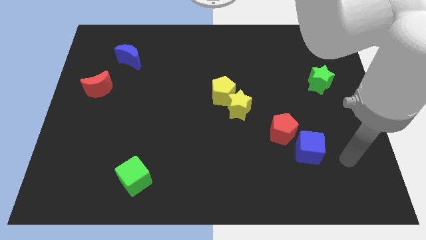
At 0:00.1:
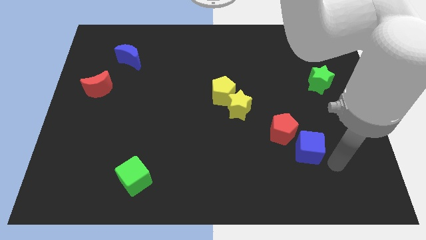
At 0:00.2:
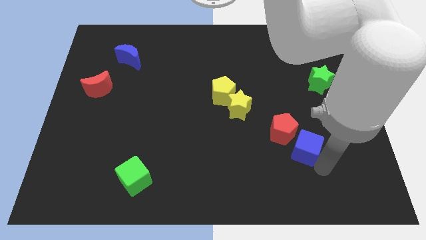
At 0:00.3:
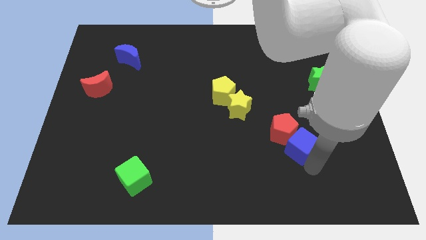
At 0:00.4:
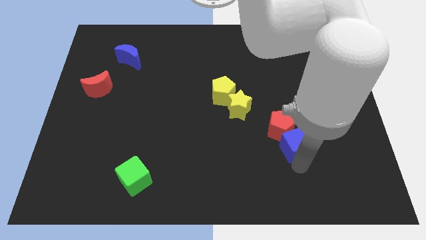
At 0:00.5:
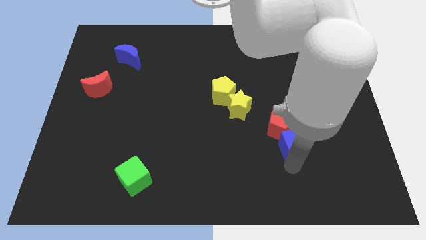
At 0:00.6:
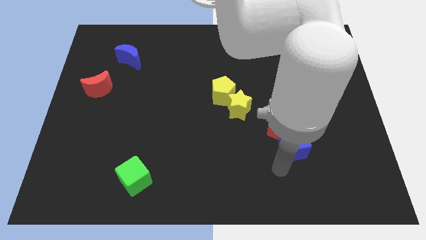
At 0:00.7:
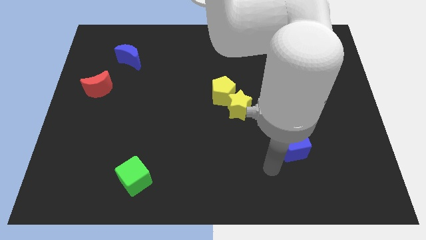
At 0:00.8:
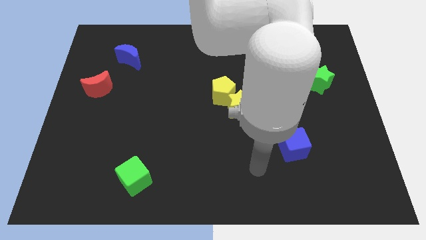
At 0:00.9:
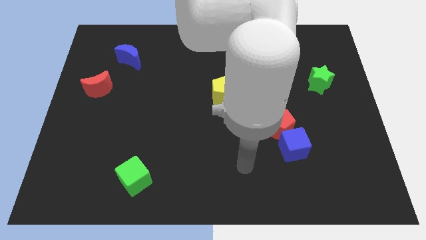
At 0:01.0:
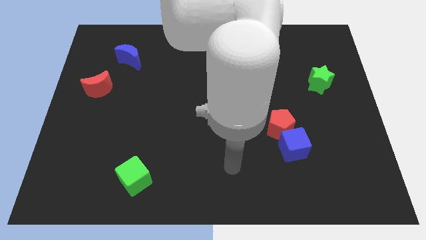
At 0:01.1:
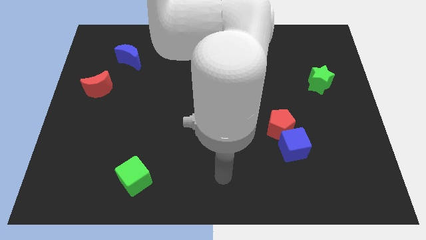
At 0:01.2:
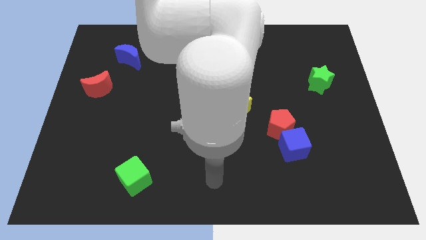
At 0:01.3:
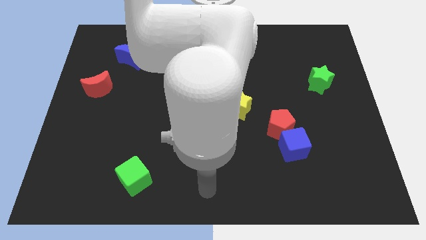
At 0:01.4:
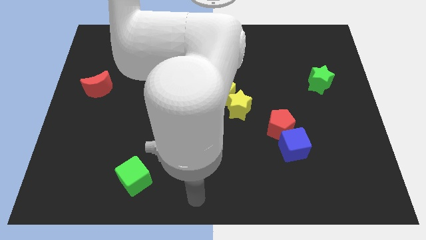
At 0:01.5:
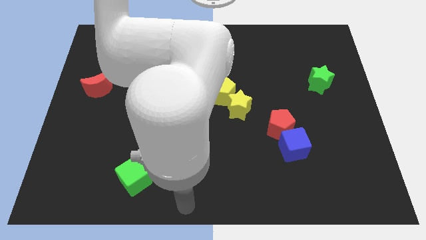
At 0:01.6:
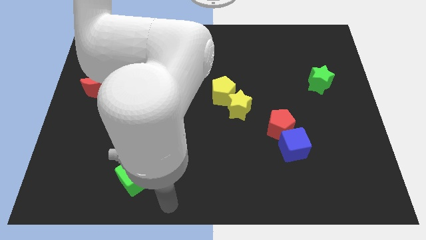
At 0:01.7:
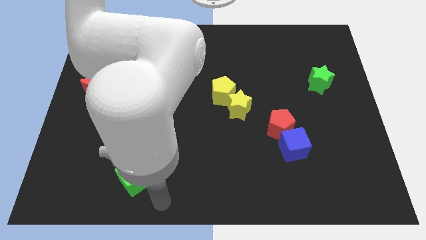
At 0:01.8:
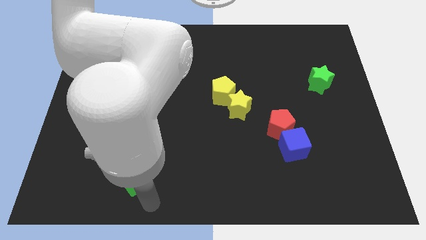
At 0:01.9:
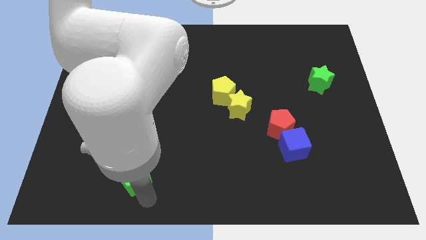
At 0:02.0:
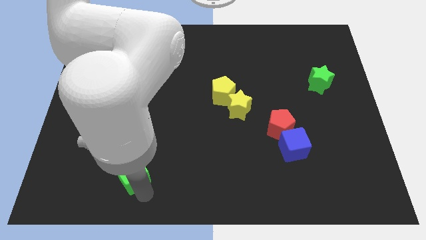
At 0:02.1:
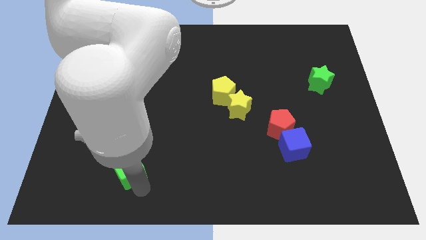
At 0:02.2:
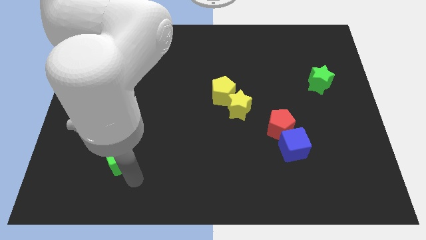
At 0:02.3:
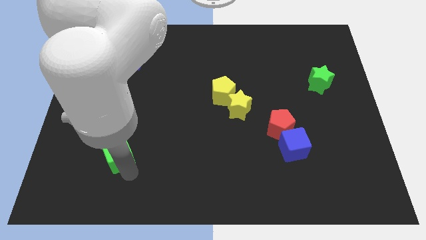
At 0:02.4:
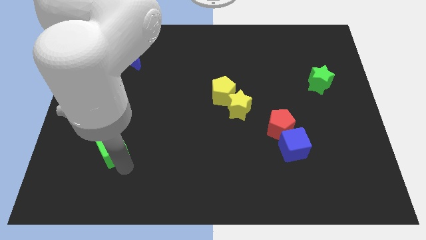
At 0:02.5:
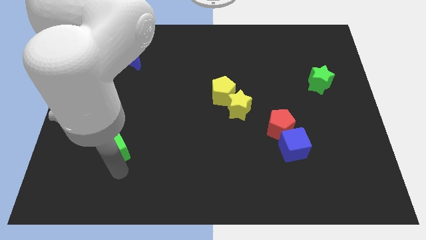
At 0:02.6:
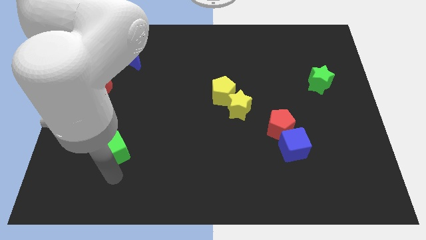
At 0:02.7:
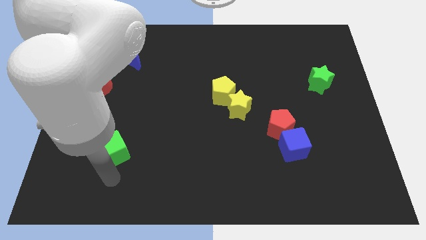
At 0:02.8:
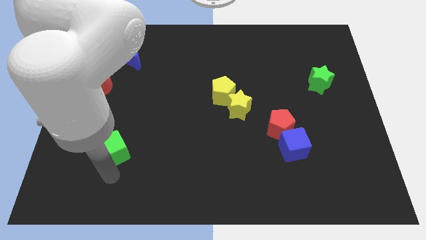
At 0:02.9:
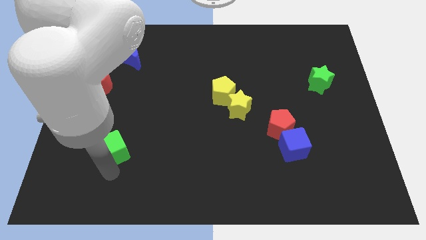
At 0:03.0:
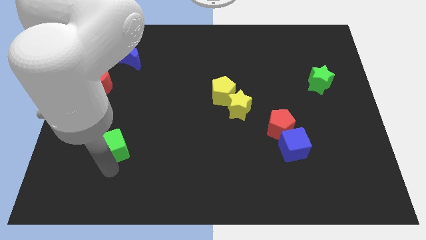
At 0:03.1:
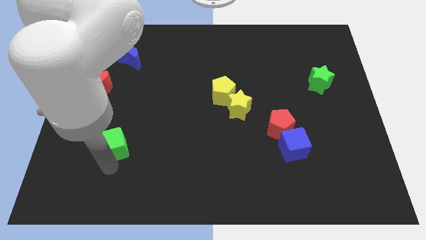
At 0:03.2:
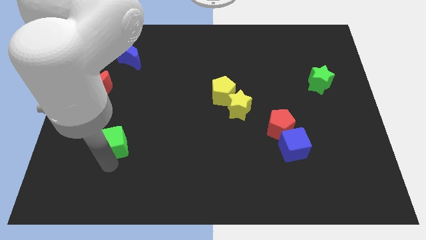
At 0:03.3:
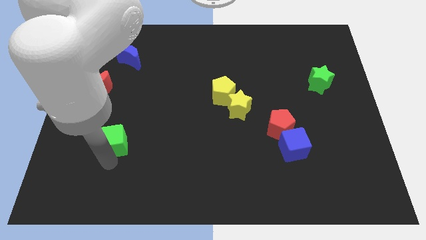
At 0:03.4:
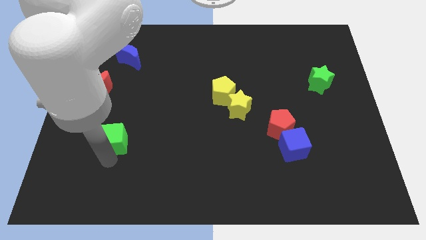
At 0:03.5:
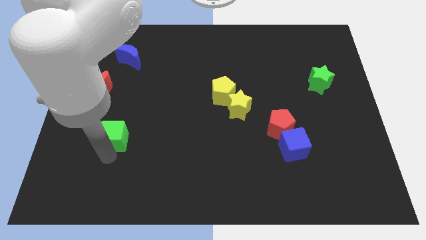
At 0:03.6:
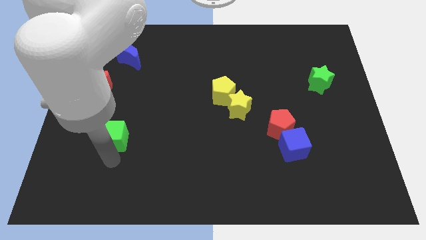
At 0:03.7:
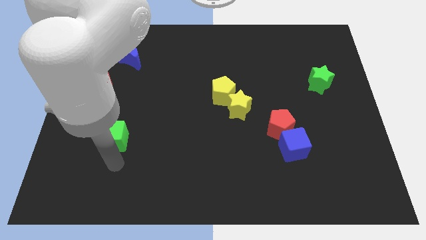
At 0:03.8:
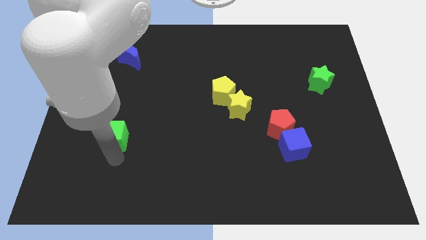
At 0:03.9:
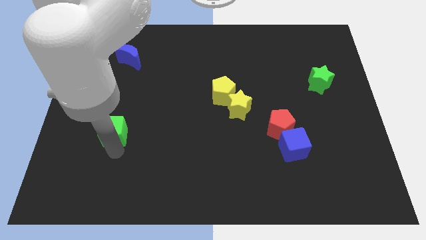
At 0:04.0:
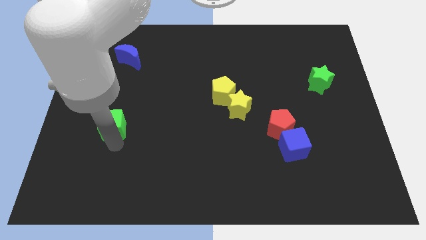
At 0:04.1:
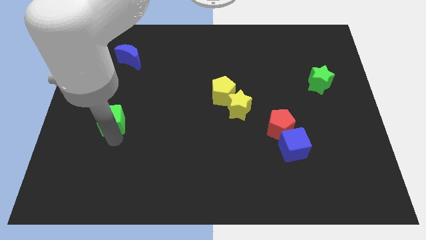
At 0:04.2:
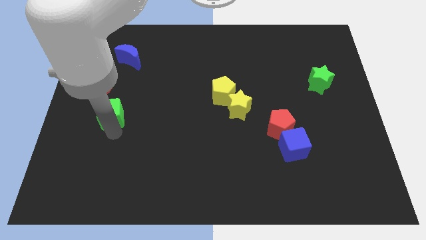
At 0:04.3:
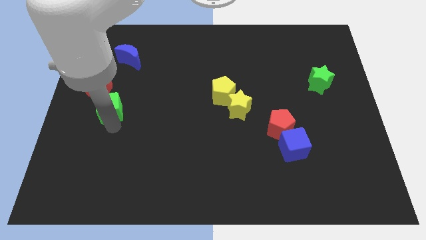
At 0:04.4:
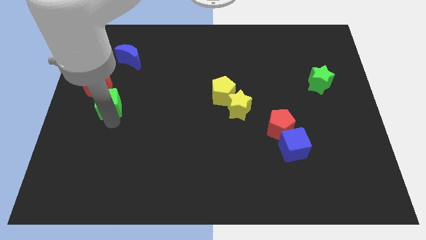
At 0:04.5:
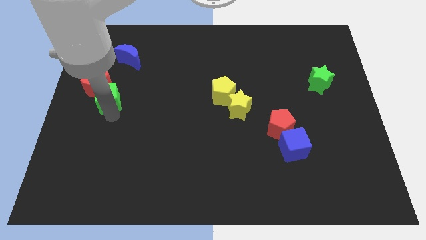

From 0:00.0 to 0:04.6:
push the green cube towards the red moon

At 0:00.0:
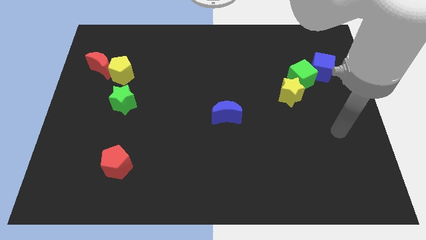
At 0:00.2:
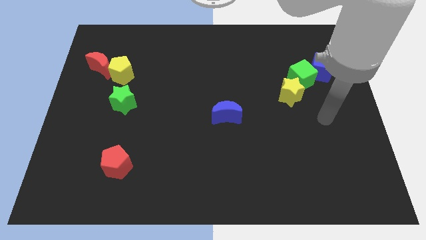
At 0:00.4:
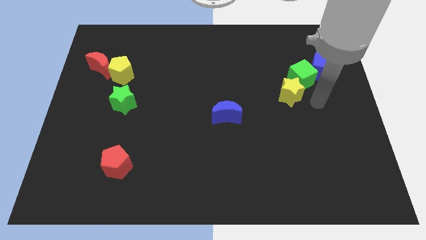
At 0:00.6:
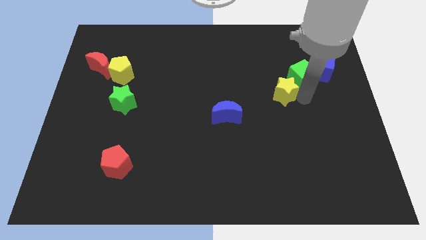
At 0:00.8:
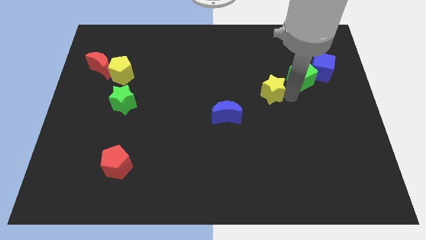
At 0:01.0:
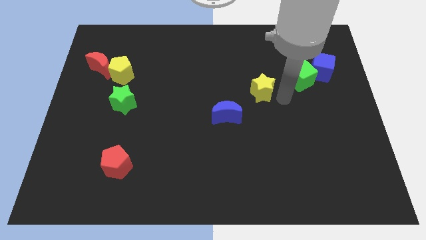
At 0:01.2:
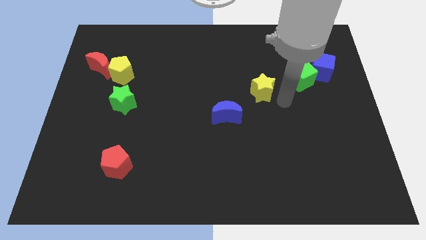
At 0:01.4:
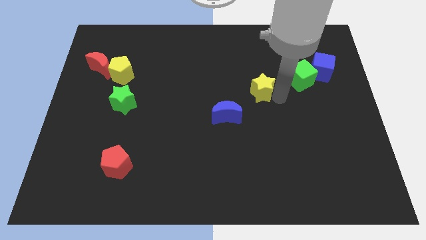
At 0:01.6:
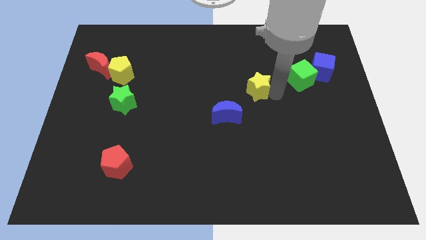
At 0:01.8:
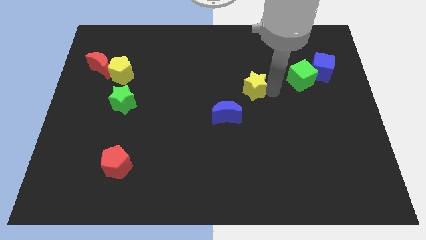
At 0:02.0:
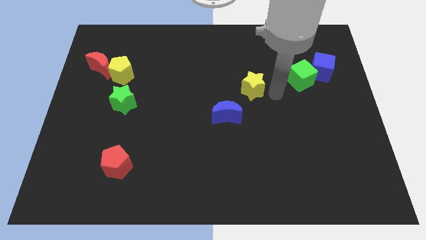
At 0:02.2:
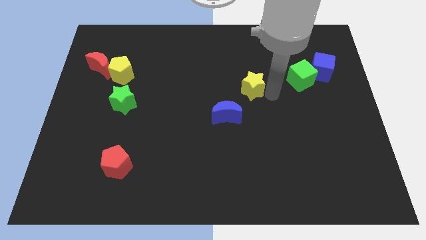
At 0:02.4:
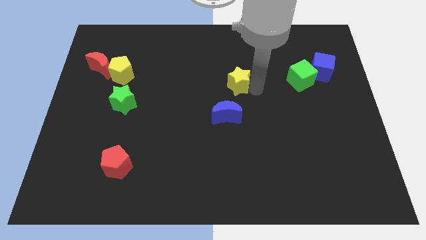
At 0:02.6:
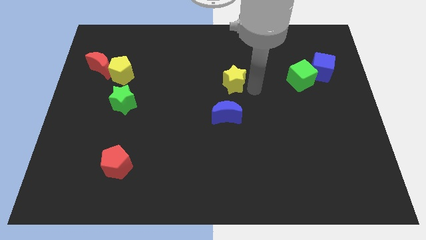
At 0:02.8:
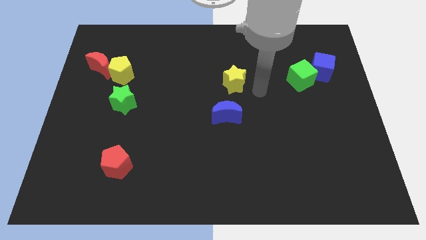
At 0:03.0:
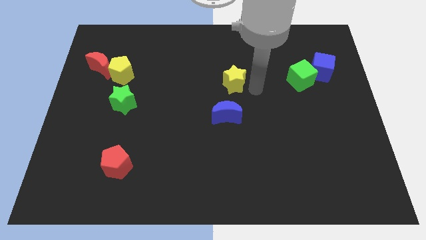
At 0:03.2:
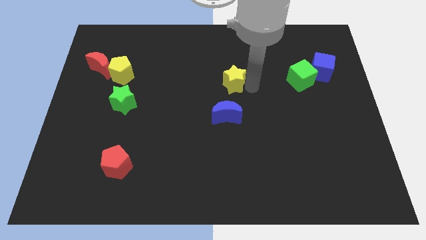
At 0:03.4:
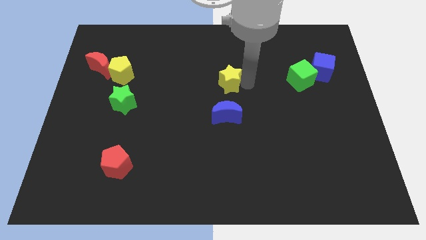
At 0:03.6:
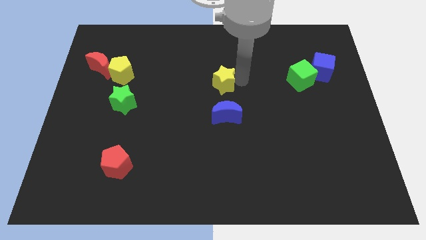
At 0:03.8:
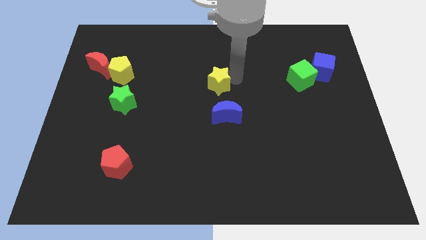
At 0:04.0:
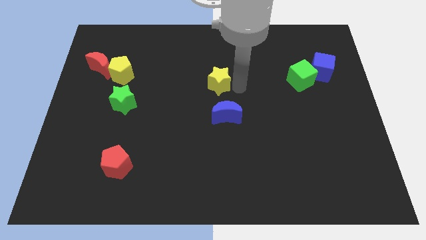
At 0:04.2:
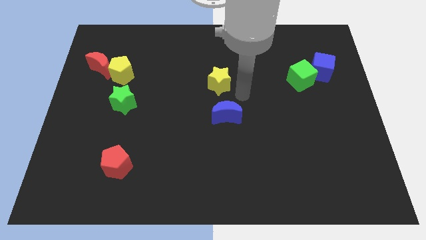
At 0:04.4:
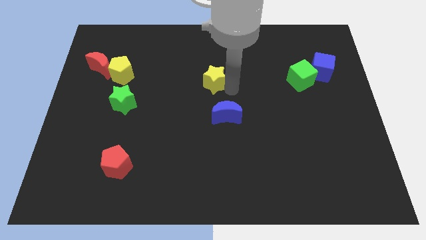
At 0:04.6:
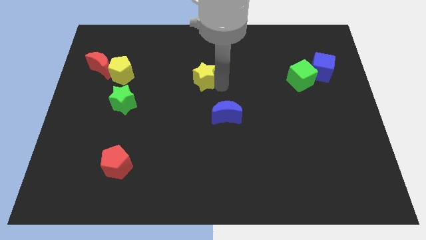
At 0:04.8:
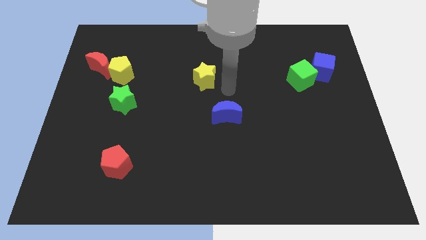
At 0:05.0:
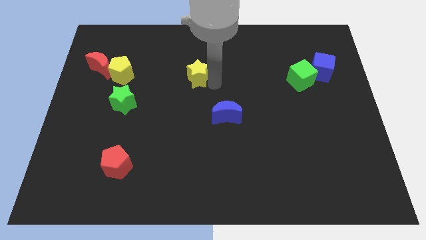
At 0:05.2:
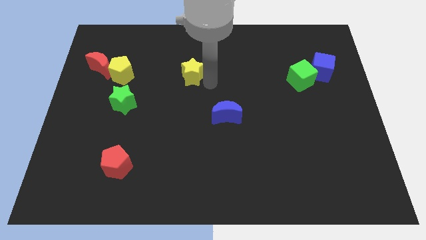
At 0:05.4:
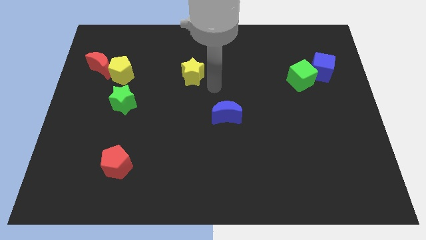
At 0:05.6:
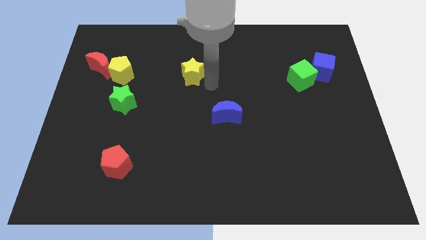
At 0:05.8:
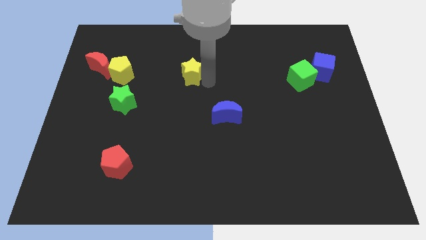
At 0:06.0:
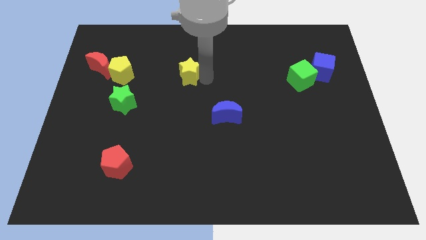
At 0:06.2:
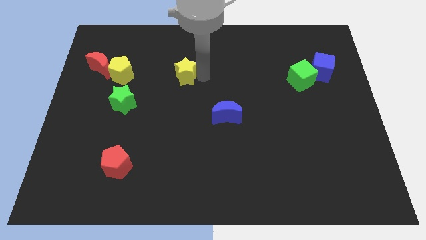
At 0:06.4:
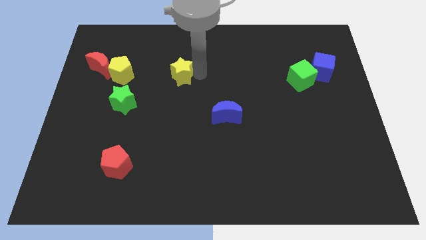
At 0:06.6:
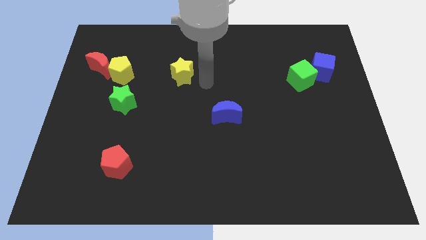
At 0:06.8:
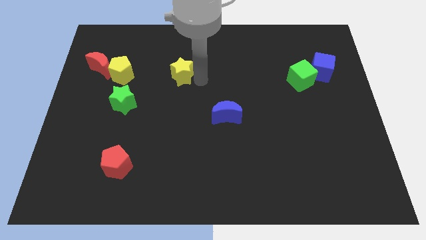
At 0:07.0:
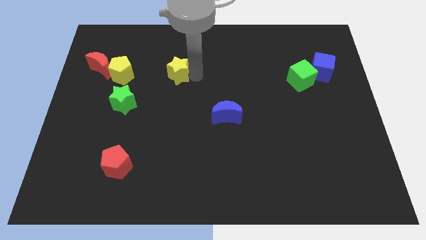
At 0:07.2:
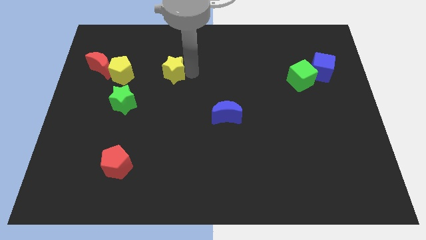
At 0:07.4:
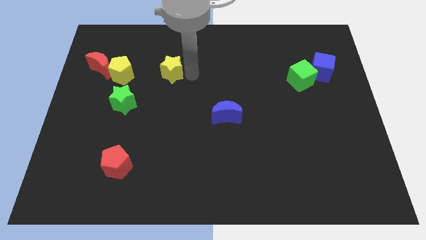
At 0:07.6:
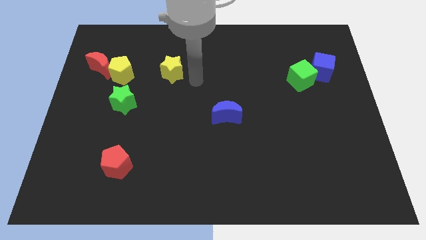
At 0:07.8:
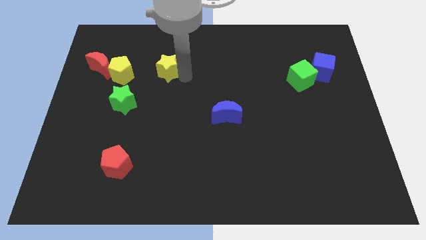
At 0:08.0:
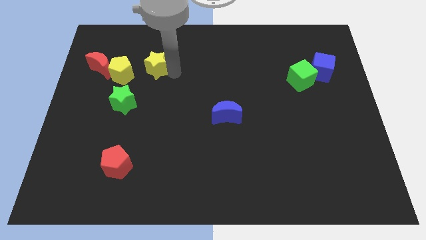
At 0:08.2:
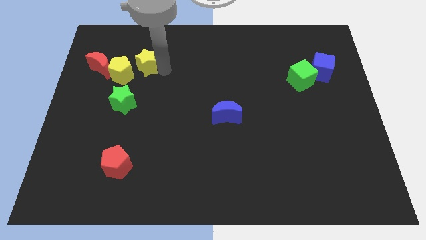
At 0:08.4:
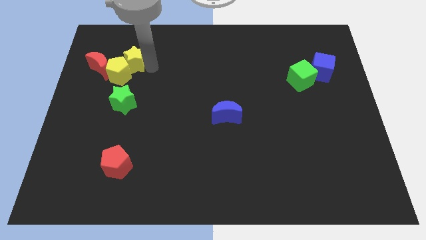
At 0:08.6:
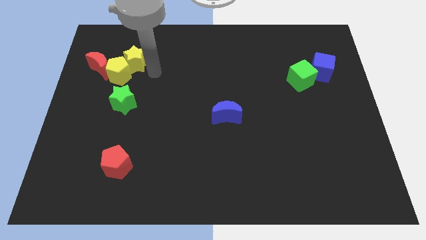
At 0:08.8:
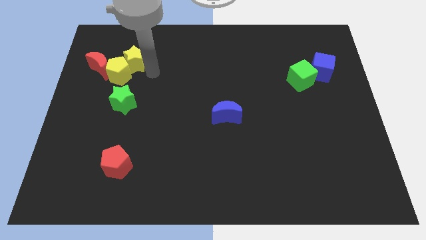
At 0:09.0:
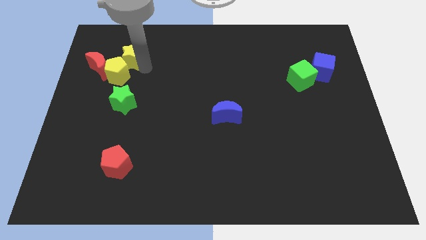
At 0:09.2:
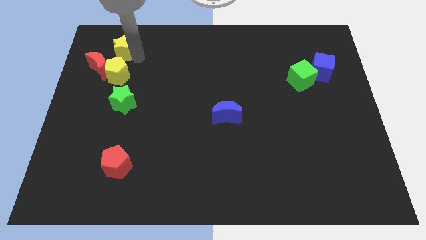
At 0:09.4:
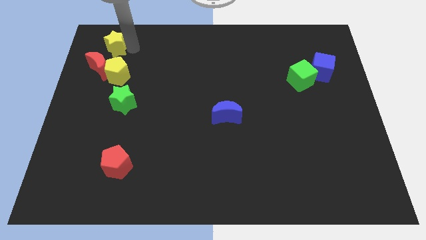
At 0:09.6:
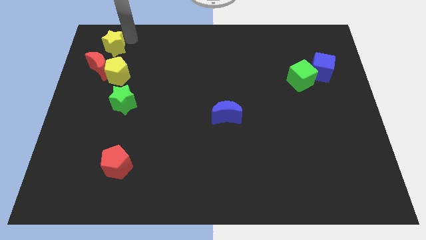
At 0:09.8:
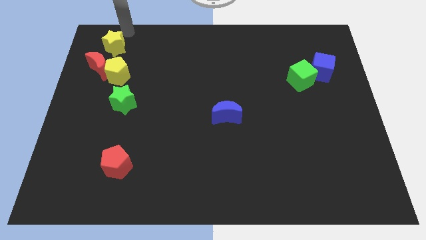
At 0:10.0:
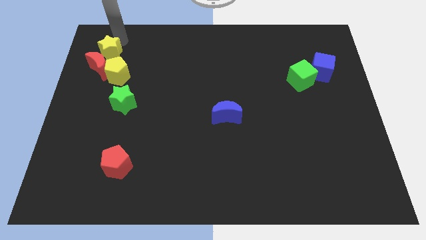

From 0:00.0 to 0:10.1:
move the yellow star to the red moon
